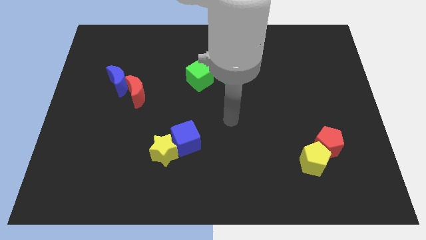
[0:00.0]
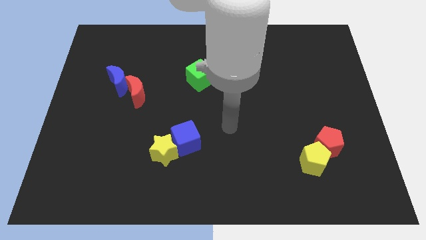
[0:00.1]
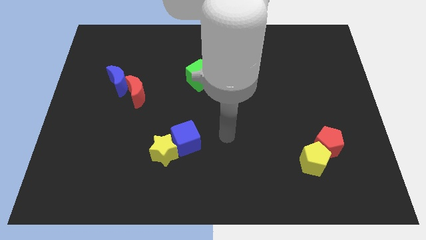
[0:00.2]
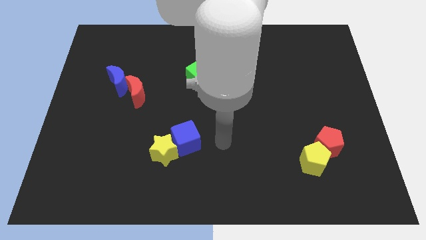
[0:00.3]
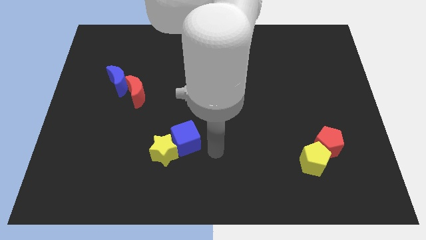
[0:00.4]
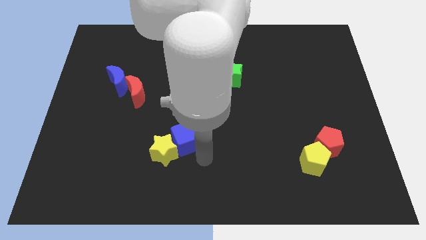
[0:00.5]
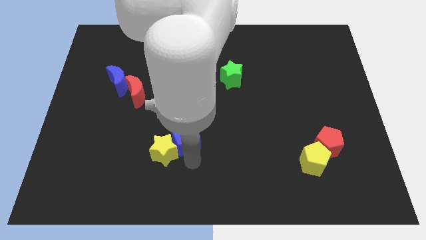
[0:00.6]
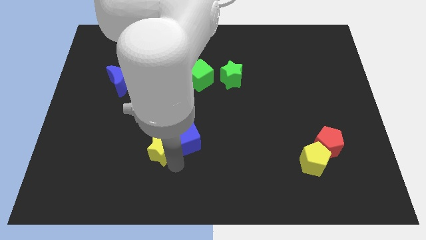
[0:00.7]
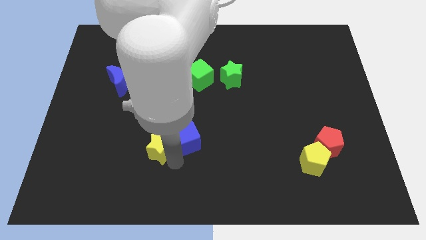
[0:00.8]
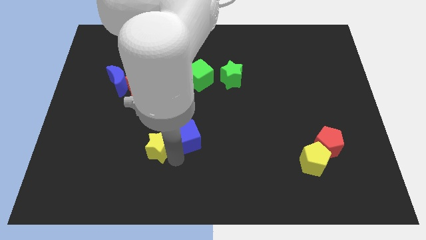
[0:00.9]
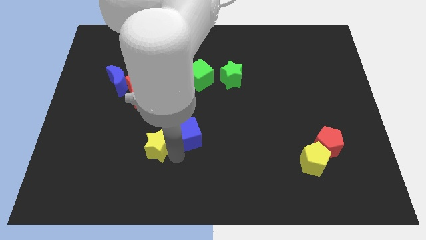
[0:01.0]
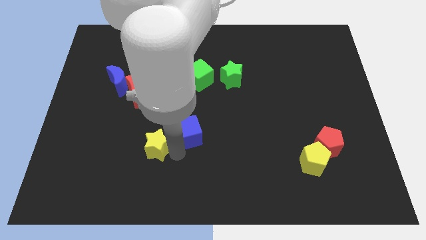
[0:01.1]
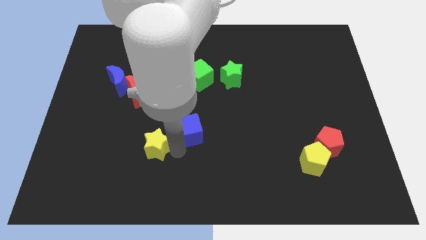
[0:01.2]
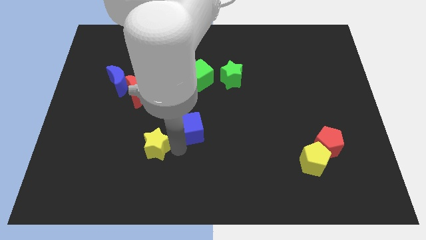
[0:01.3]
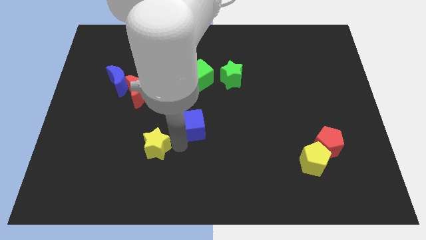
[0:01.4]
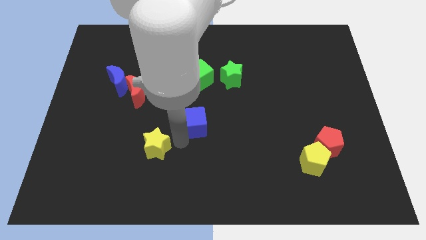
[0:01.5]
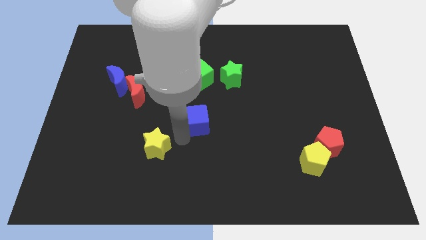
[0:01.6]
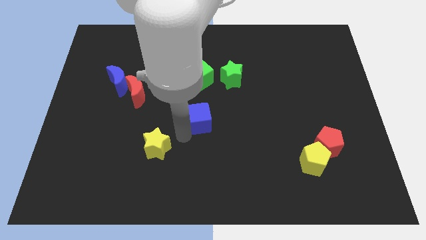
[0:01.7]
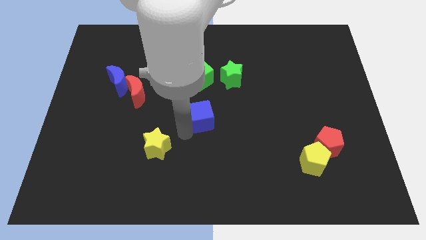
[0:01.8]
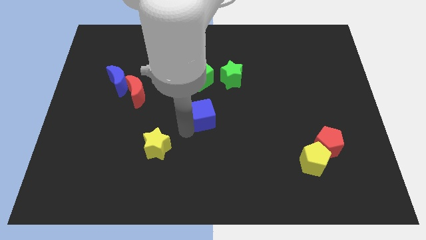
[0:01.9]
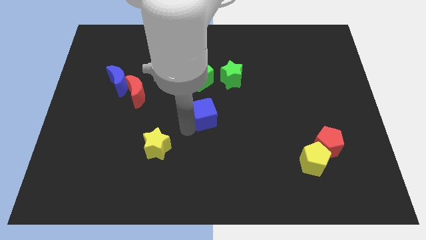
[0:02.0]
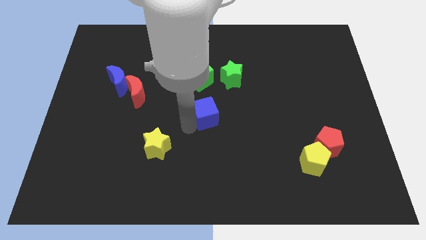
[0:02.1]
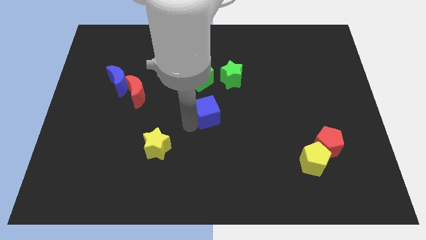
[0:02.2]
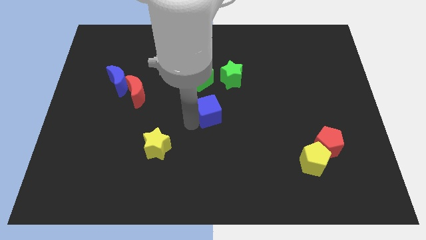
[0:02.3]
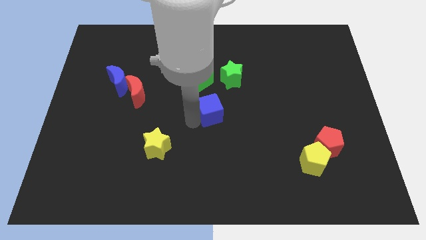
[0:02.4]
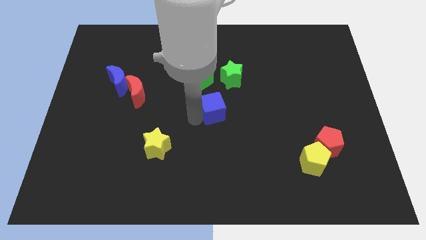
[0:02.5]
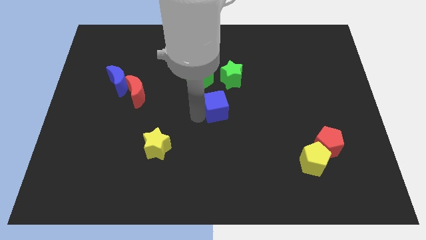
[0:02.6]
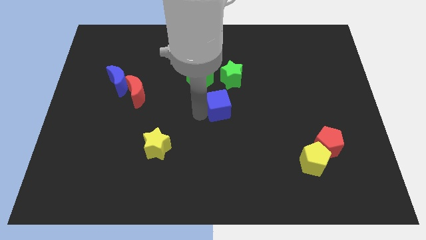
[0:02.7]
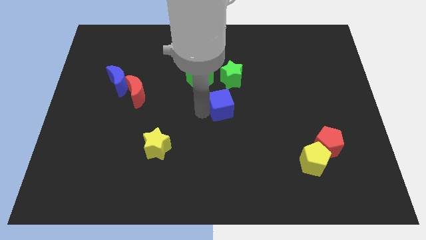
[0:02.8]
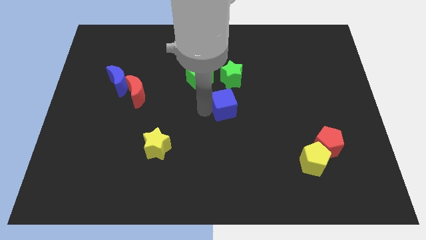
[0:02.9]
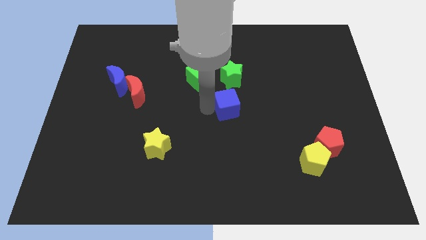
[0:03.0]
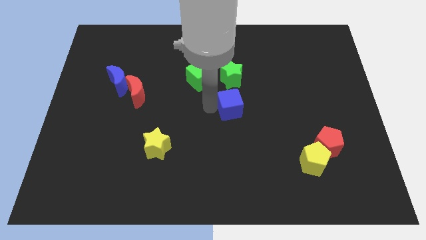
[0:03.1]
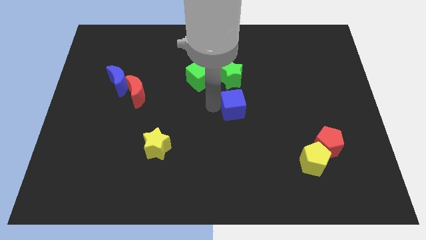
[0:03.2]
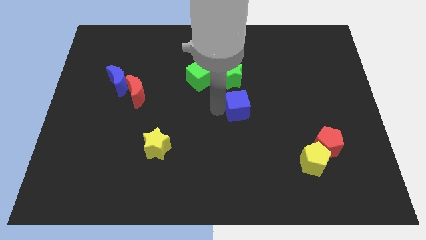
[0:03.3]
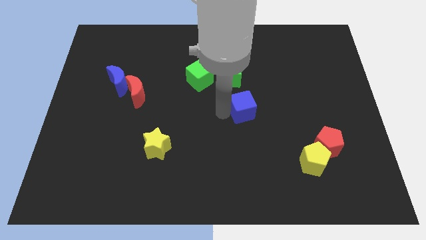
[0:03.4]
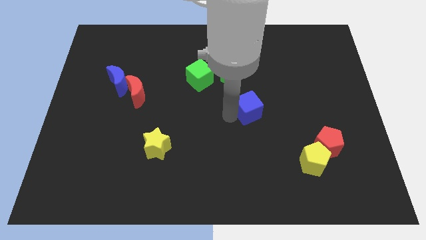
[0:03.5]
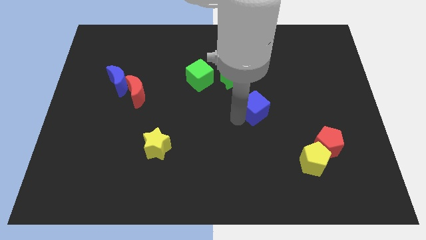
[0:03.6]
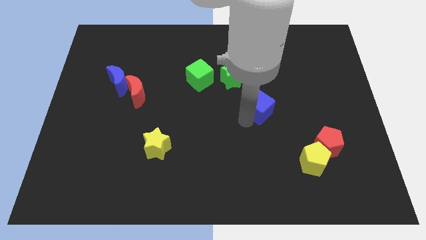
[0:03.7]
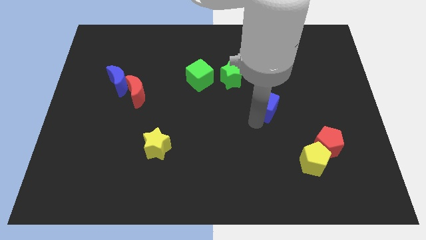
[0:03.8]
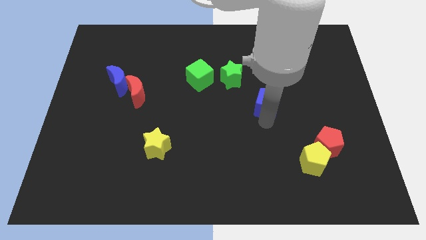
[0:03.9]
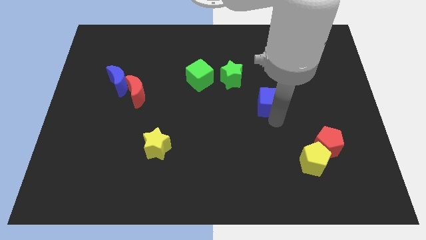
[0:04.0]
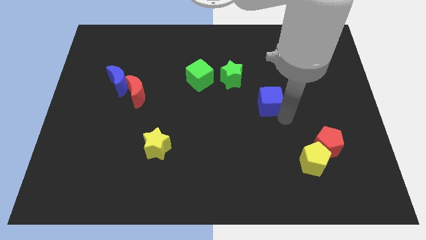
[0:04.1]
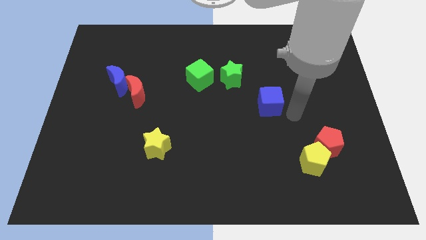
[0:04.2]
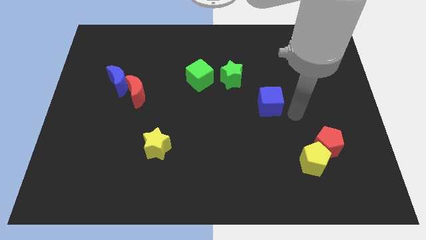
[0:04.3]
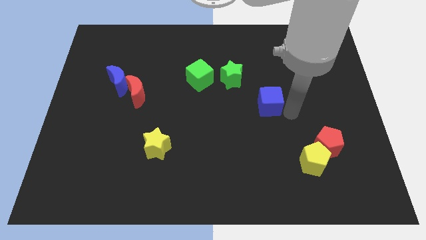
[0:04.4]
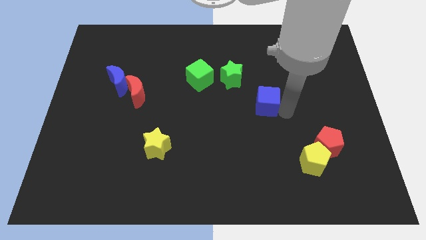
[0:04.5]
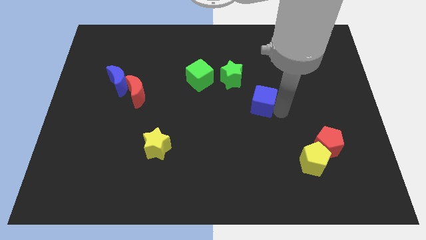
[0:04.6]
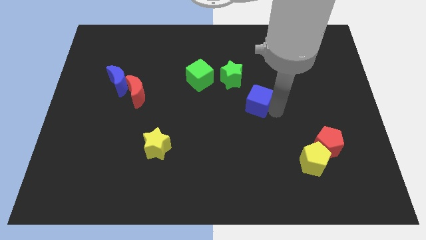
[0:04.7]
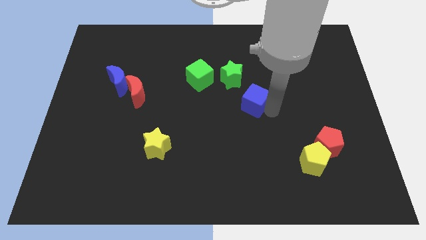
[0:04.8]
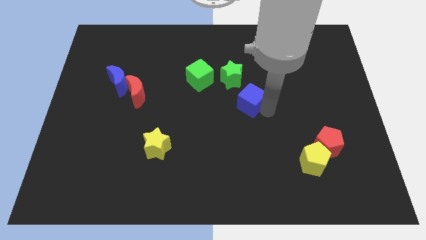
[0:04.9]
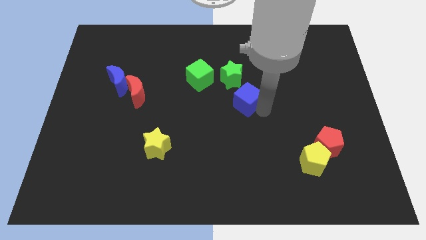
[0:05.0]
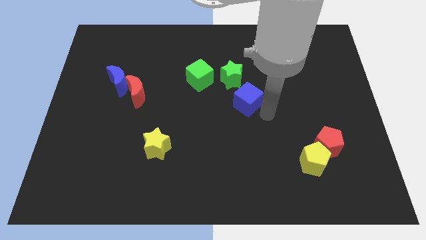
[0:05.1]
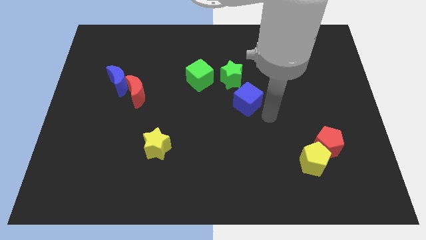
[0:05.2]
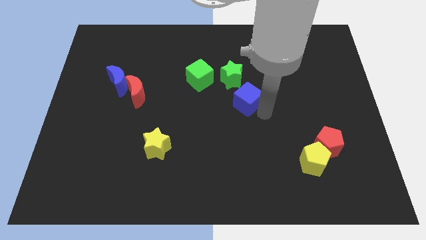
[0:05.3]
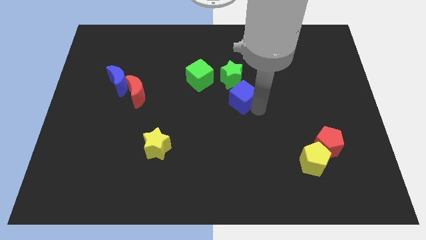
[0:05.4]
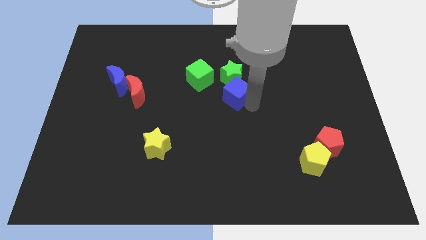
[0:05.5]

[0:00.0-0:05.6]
push the blue cube towards the green star

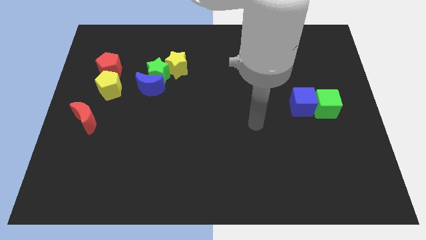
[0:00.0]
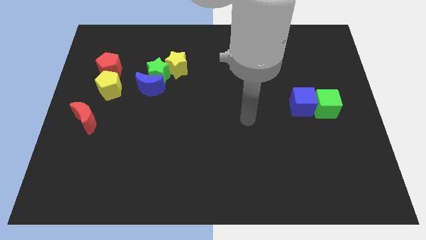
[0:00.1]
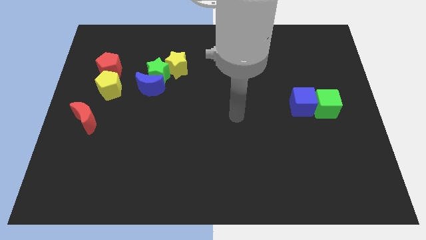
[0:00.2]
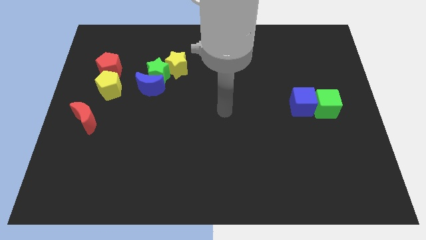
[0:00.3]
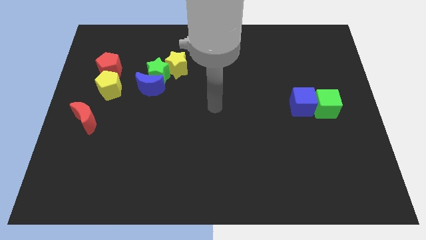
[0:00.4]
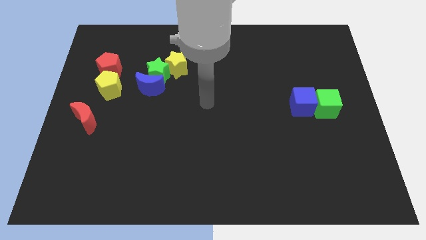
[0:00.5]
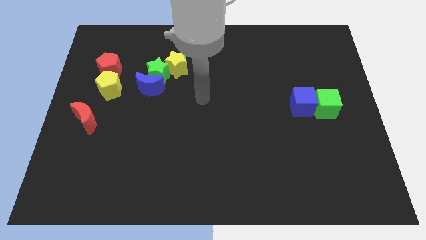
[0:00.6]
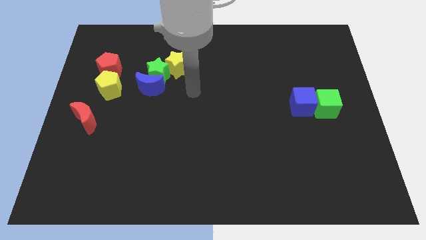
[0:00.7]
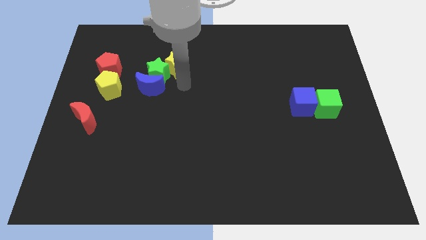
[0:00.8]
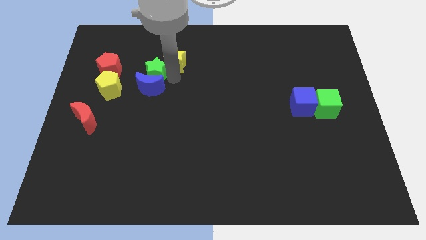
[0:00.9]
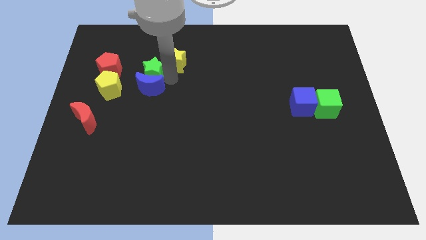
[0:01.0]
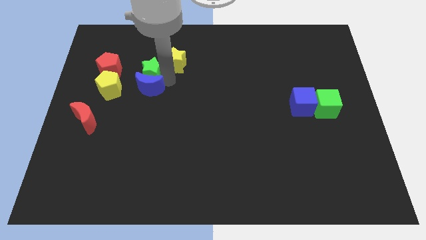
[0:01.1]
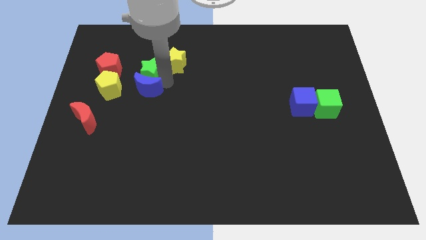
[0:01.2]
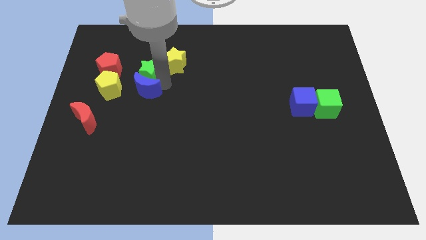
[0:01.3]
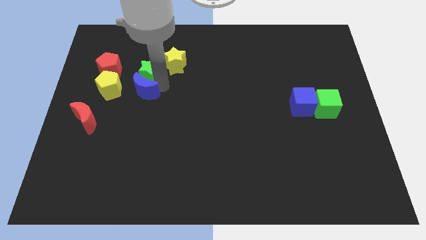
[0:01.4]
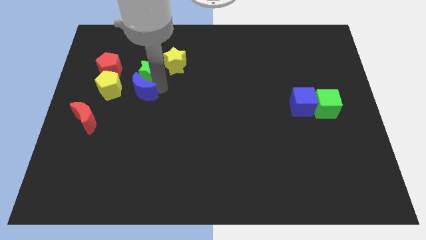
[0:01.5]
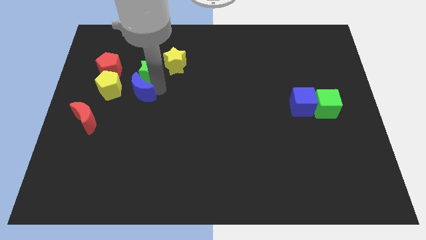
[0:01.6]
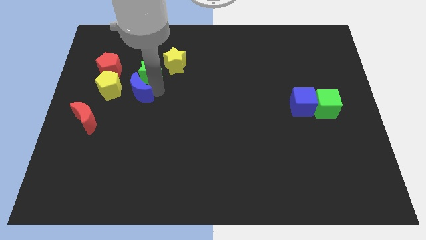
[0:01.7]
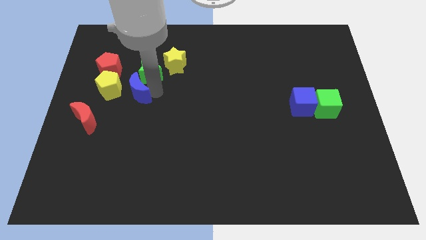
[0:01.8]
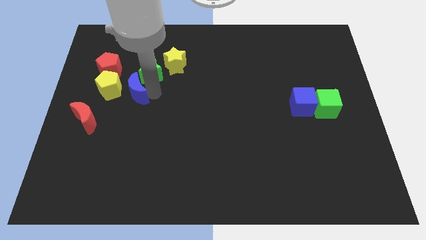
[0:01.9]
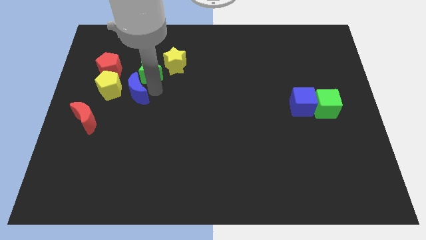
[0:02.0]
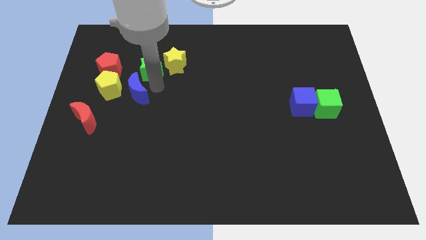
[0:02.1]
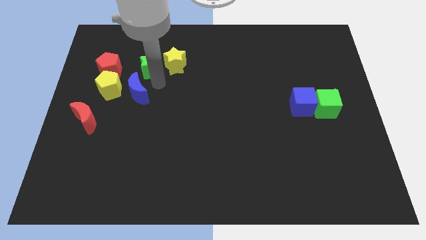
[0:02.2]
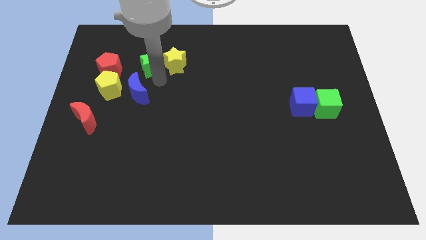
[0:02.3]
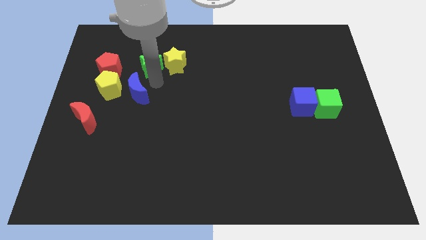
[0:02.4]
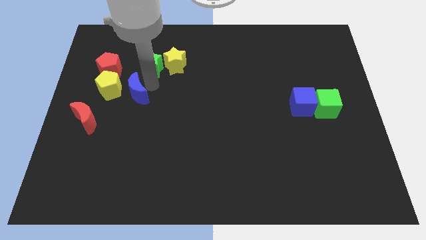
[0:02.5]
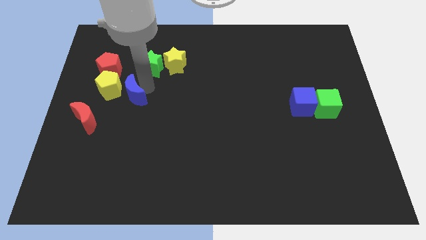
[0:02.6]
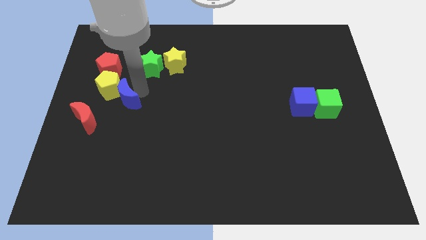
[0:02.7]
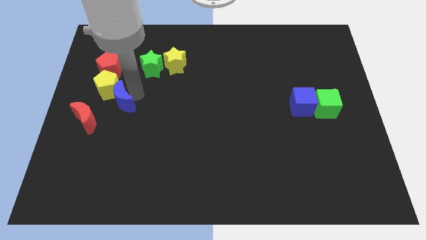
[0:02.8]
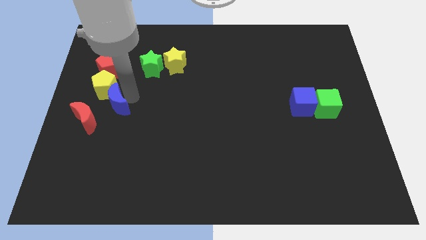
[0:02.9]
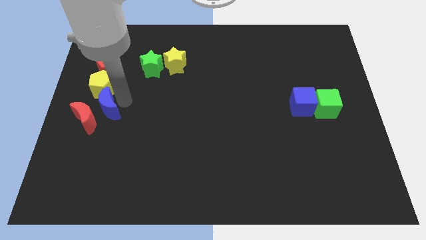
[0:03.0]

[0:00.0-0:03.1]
push the blue moon next to the red moon
